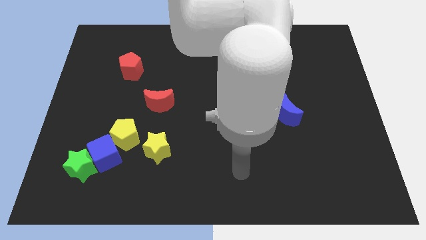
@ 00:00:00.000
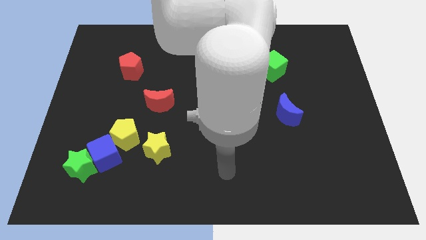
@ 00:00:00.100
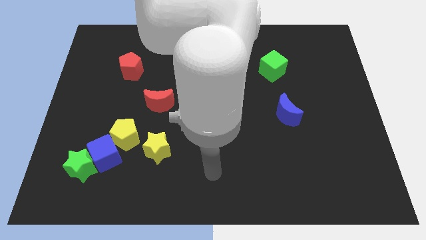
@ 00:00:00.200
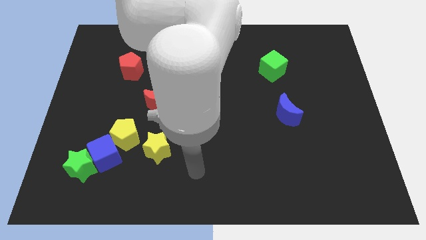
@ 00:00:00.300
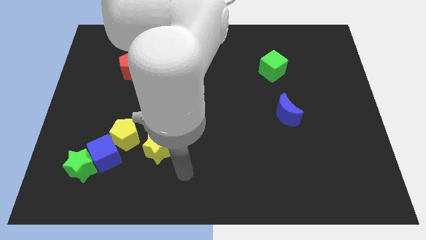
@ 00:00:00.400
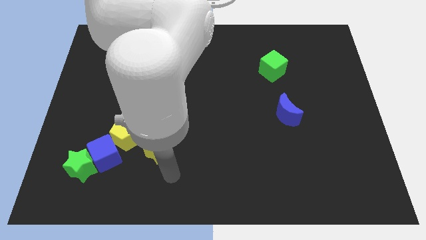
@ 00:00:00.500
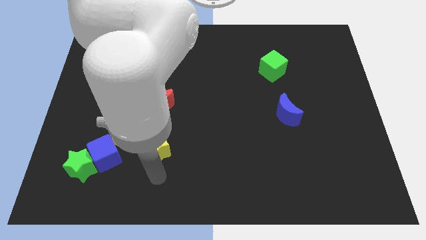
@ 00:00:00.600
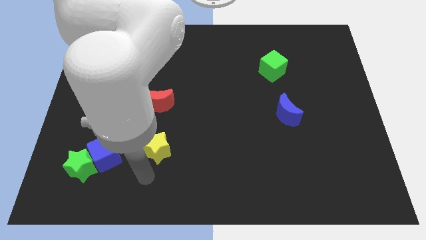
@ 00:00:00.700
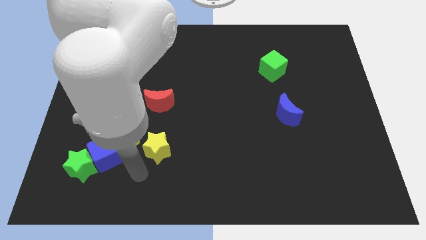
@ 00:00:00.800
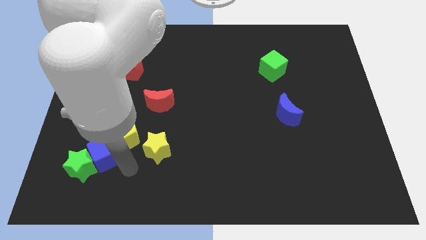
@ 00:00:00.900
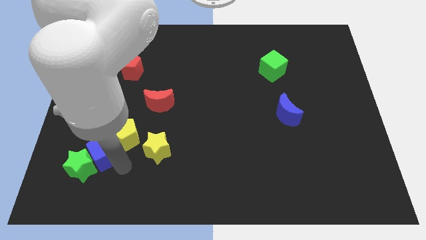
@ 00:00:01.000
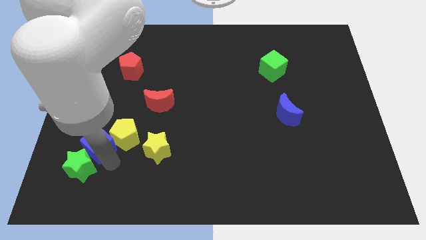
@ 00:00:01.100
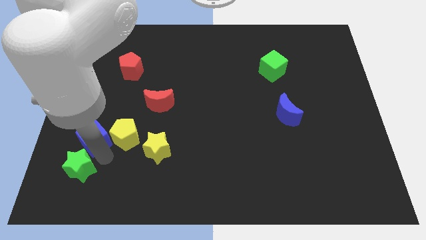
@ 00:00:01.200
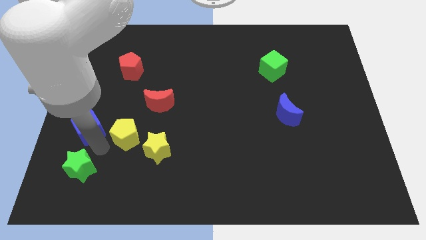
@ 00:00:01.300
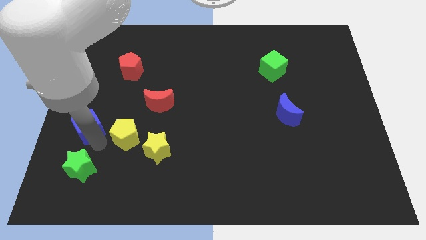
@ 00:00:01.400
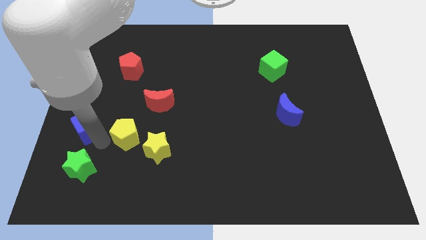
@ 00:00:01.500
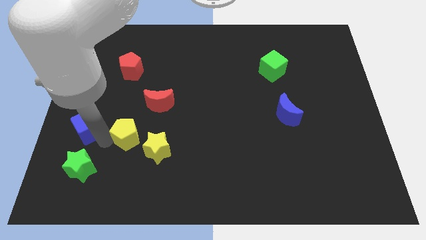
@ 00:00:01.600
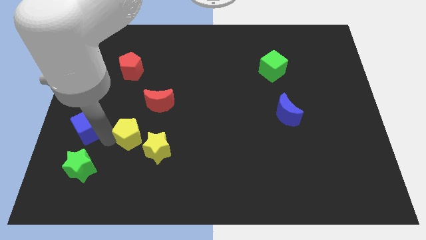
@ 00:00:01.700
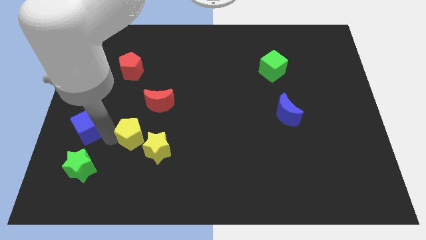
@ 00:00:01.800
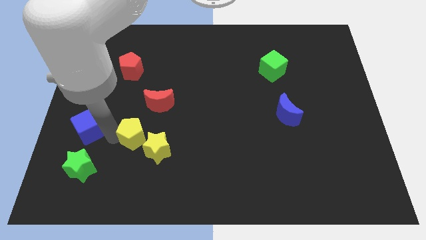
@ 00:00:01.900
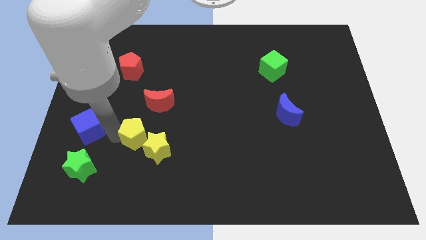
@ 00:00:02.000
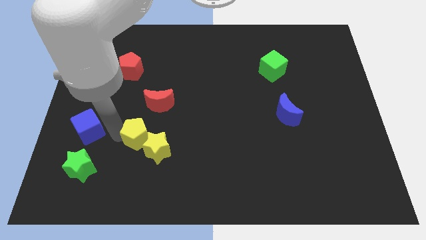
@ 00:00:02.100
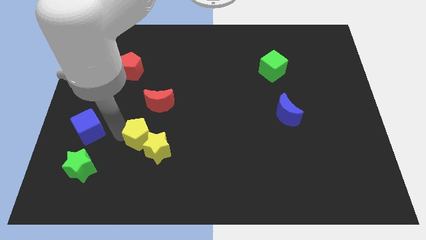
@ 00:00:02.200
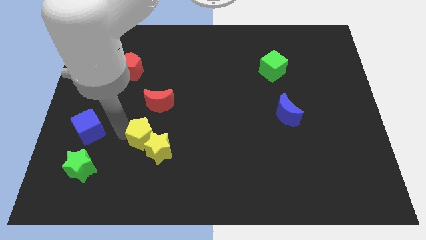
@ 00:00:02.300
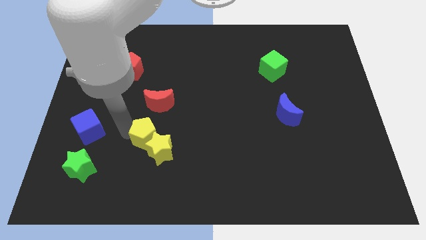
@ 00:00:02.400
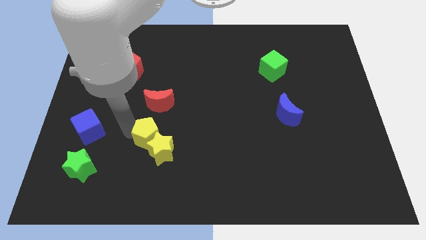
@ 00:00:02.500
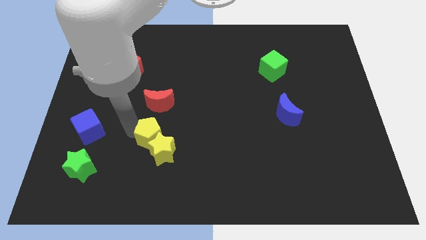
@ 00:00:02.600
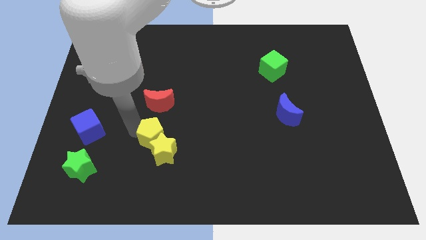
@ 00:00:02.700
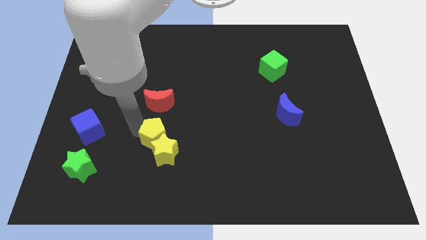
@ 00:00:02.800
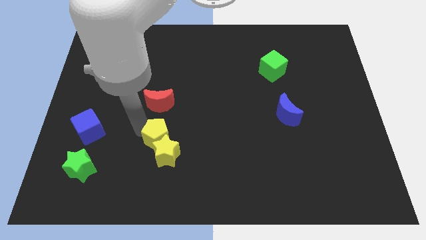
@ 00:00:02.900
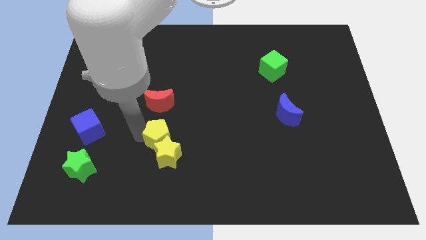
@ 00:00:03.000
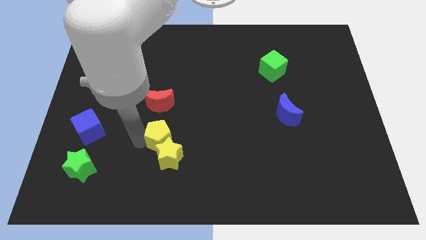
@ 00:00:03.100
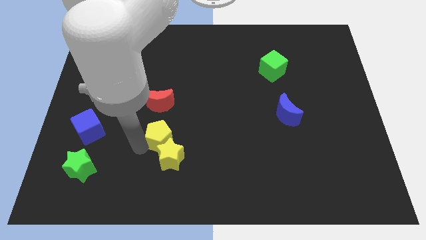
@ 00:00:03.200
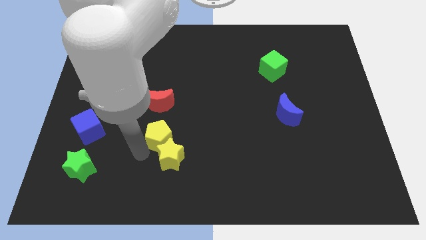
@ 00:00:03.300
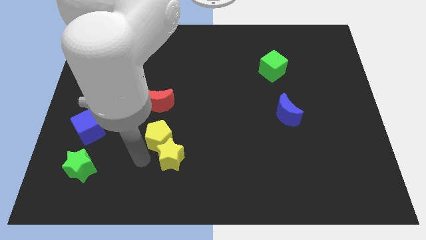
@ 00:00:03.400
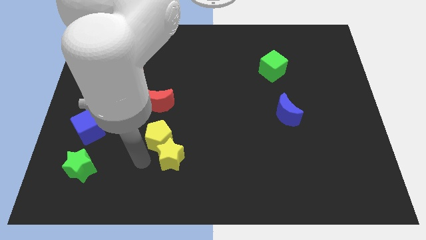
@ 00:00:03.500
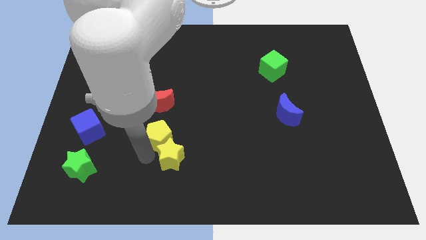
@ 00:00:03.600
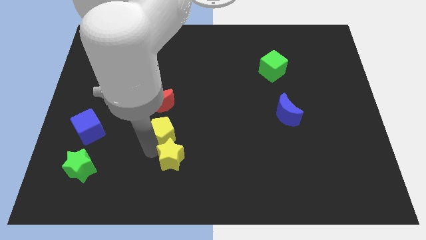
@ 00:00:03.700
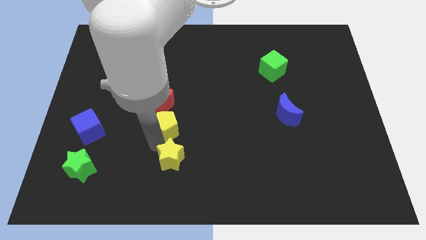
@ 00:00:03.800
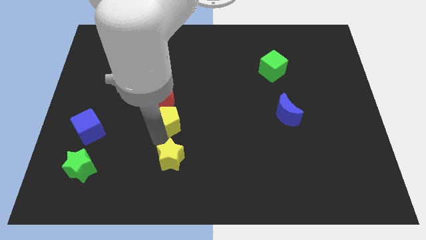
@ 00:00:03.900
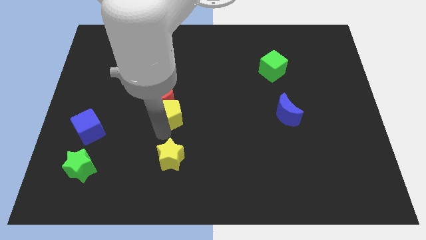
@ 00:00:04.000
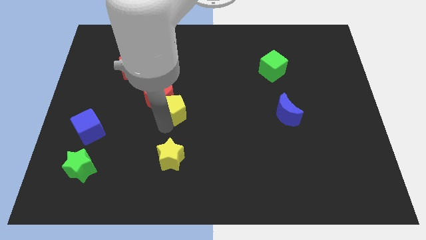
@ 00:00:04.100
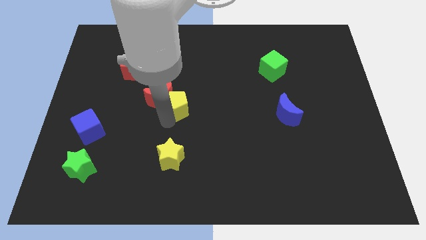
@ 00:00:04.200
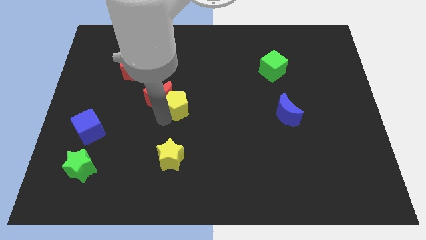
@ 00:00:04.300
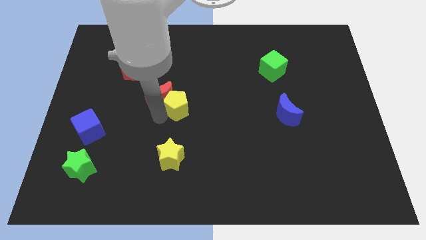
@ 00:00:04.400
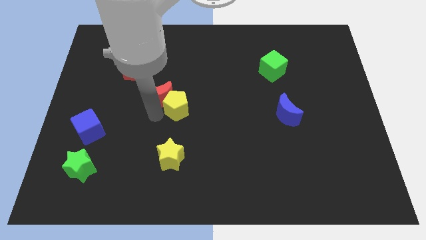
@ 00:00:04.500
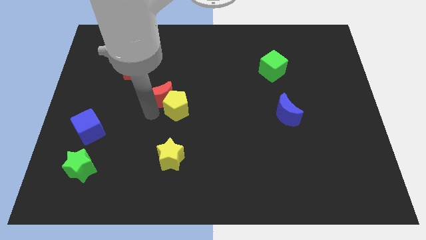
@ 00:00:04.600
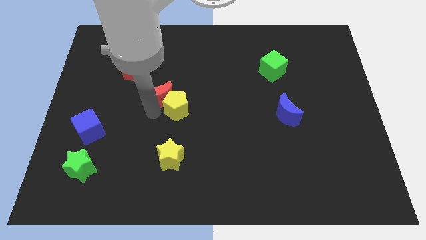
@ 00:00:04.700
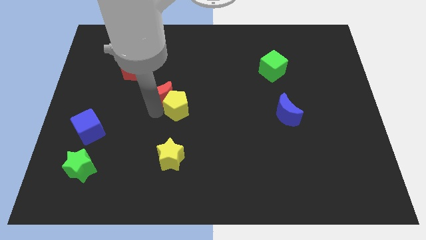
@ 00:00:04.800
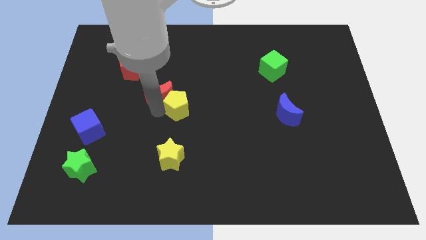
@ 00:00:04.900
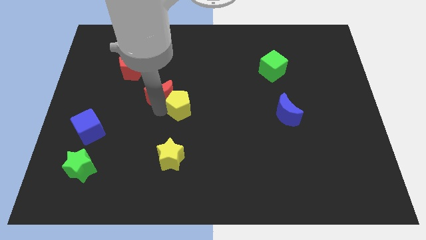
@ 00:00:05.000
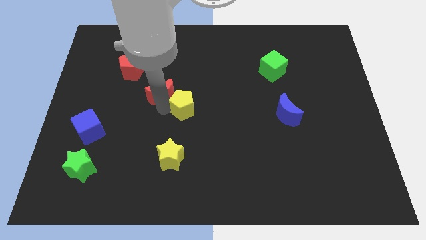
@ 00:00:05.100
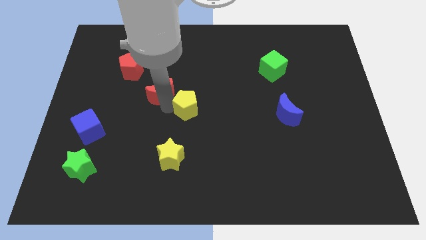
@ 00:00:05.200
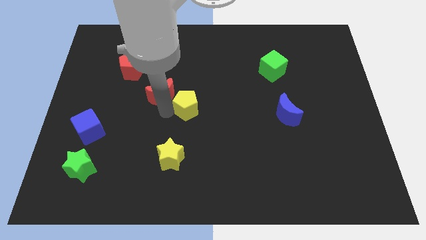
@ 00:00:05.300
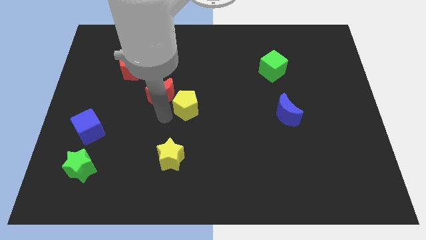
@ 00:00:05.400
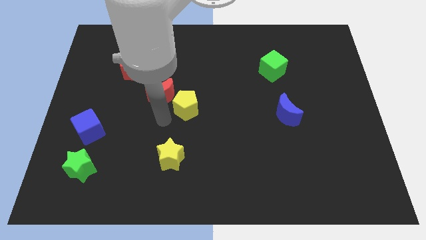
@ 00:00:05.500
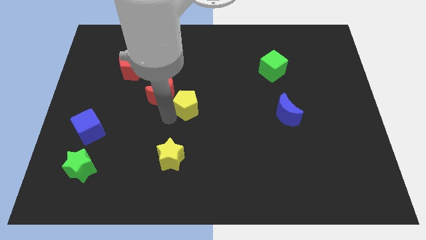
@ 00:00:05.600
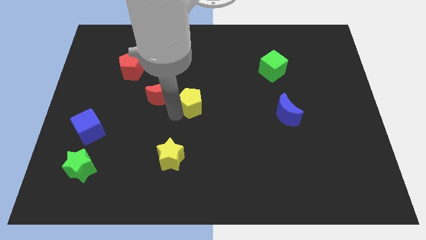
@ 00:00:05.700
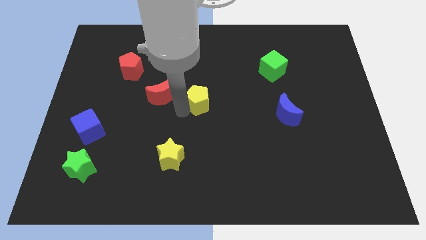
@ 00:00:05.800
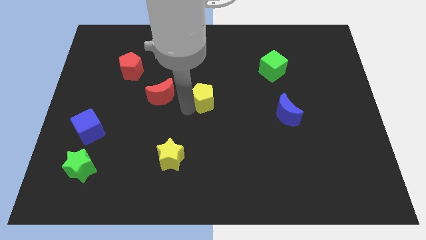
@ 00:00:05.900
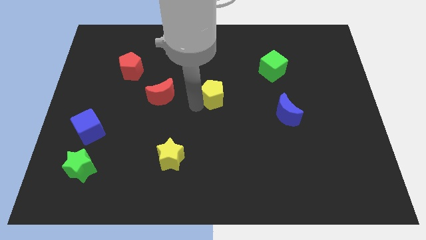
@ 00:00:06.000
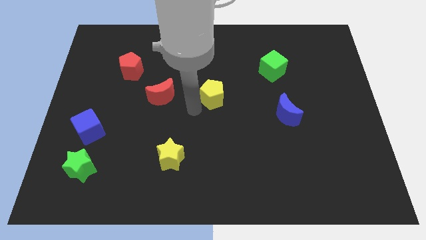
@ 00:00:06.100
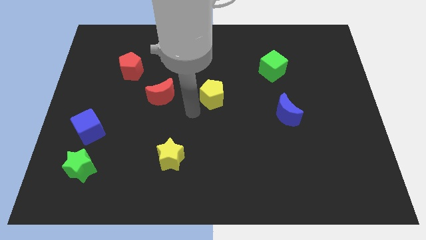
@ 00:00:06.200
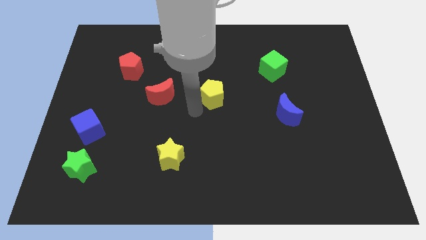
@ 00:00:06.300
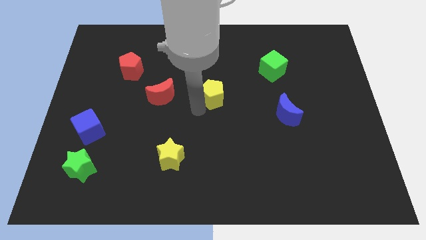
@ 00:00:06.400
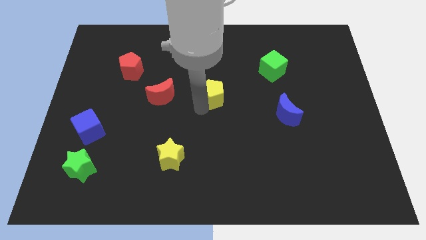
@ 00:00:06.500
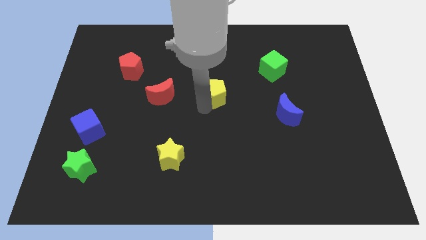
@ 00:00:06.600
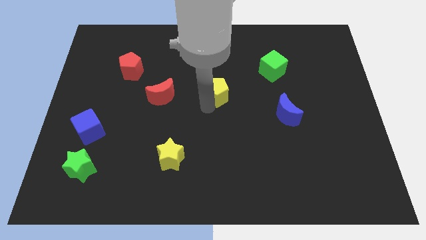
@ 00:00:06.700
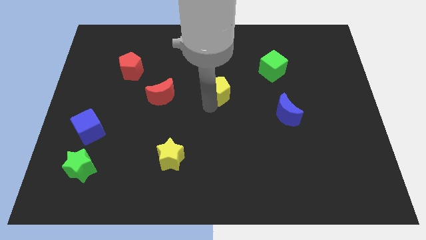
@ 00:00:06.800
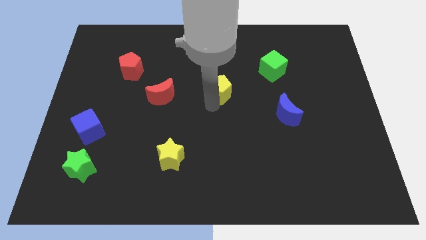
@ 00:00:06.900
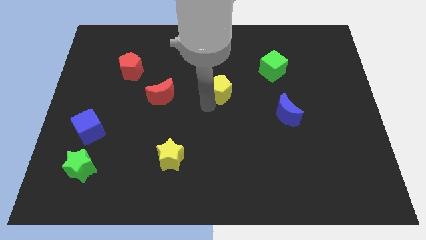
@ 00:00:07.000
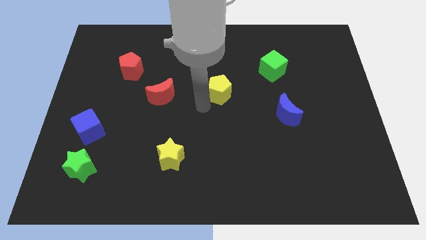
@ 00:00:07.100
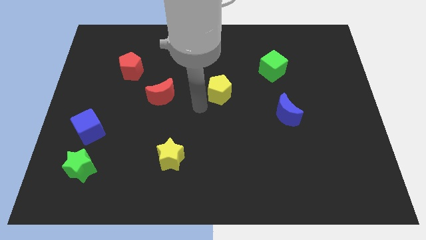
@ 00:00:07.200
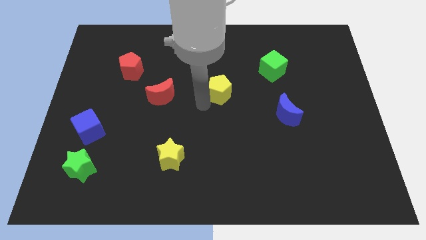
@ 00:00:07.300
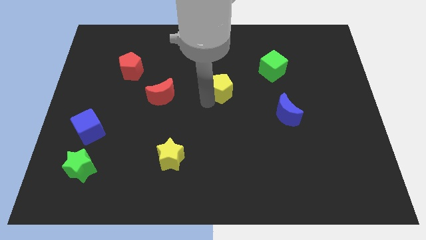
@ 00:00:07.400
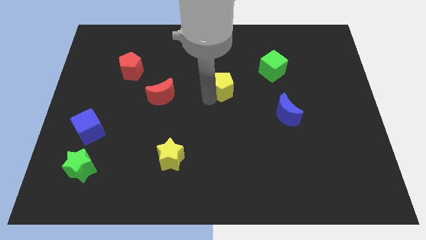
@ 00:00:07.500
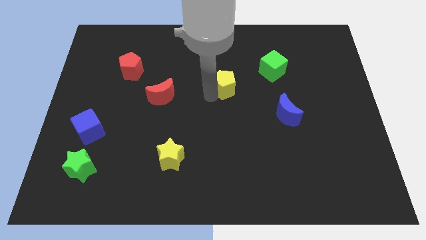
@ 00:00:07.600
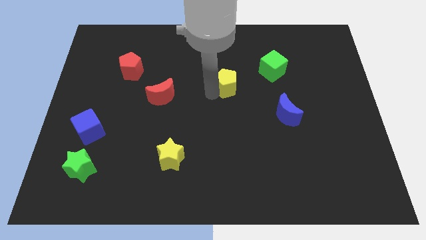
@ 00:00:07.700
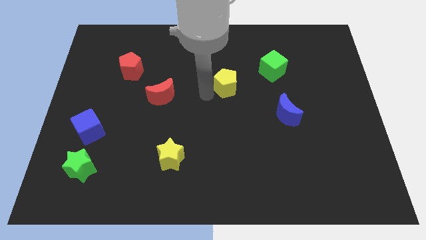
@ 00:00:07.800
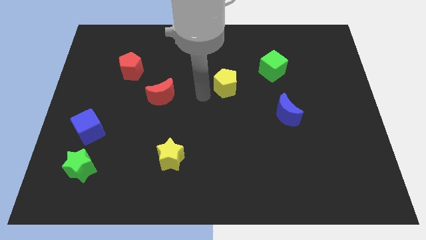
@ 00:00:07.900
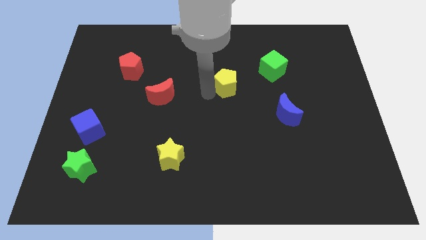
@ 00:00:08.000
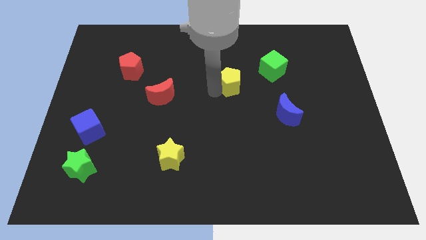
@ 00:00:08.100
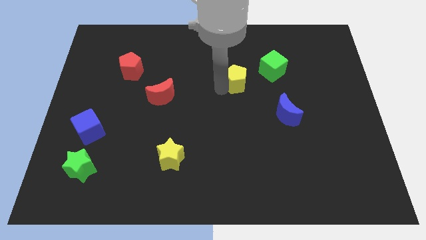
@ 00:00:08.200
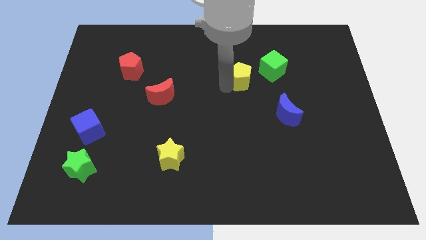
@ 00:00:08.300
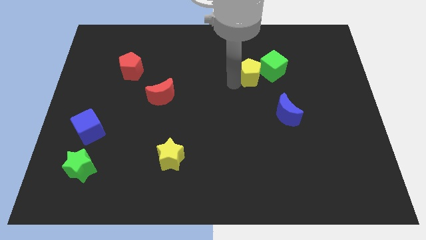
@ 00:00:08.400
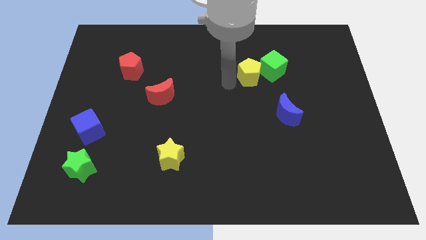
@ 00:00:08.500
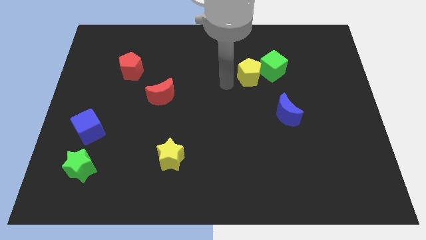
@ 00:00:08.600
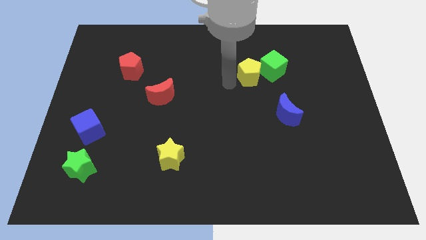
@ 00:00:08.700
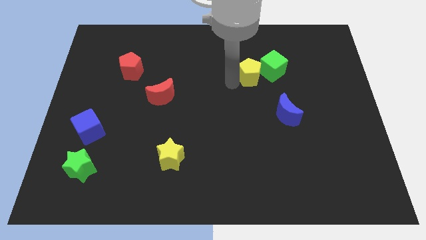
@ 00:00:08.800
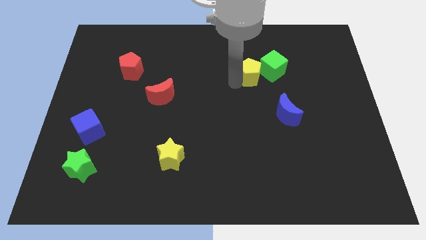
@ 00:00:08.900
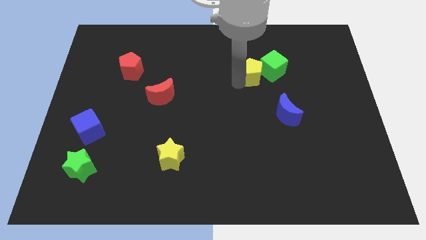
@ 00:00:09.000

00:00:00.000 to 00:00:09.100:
put the yellow pentagon to the green cube
